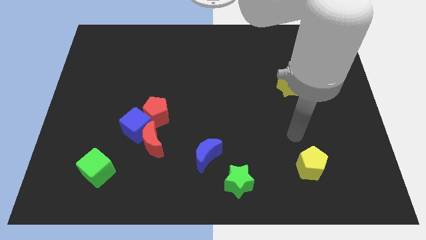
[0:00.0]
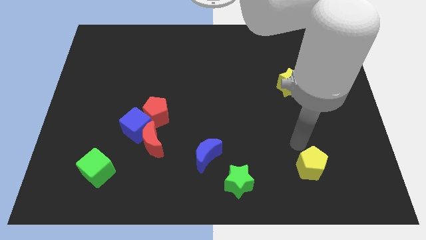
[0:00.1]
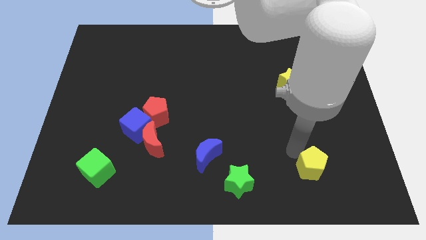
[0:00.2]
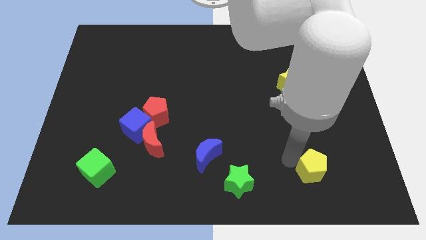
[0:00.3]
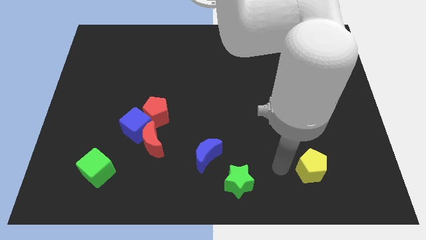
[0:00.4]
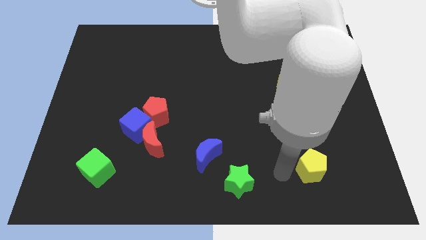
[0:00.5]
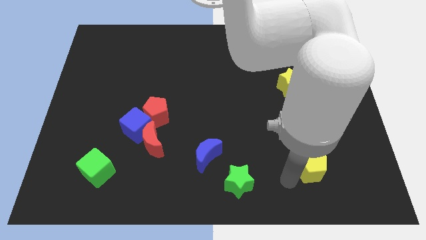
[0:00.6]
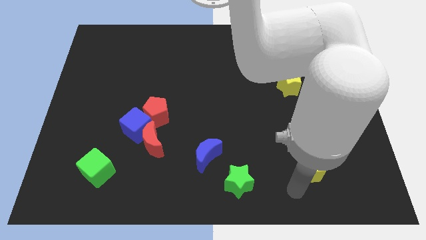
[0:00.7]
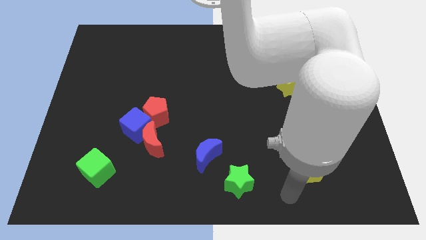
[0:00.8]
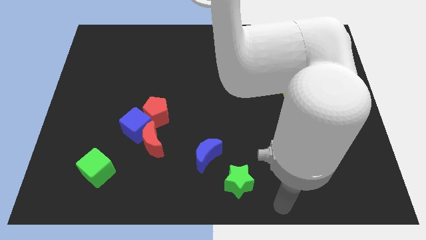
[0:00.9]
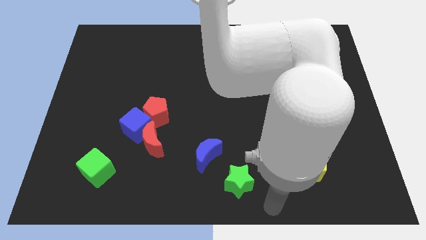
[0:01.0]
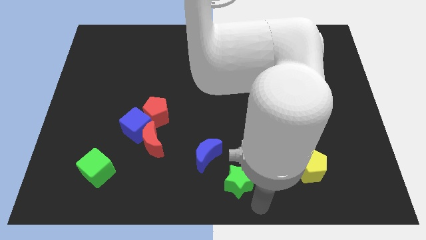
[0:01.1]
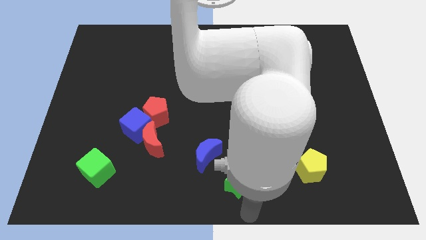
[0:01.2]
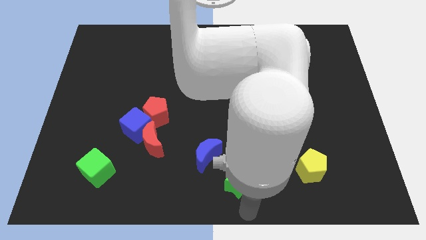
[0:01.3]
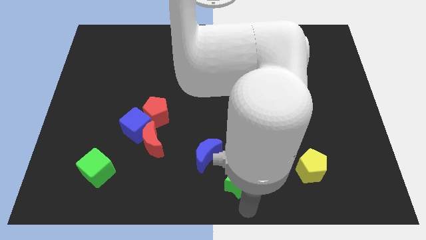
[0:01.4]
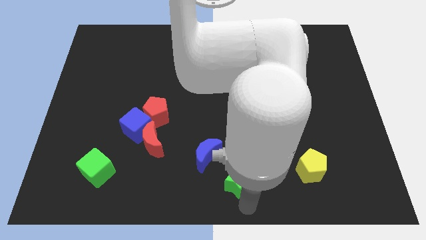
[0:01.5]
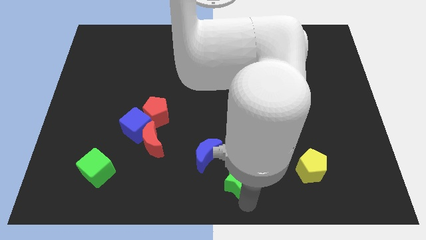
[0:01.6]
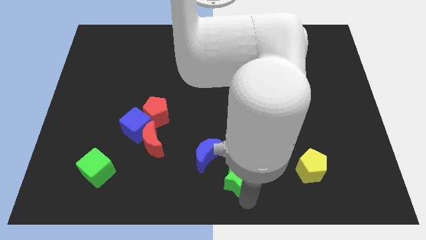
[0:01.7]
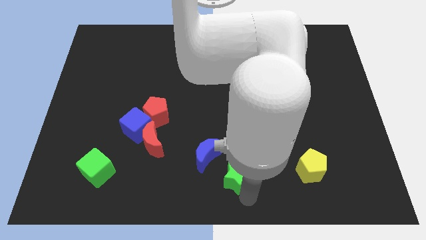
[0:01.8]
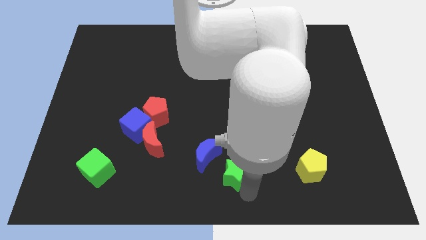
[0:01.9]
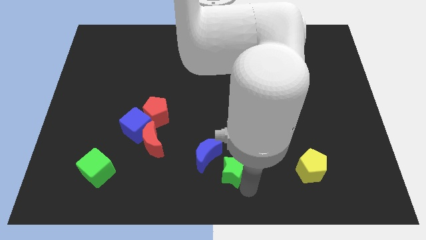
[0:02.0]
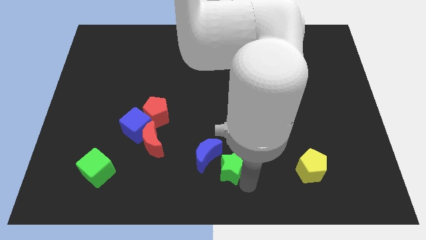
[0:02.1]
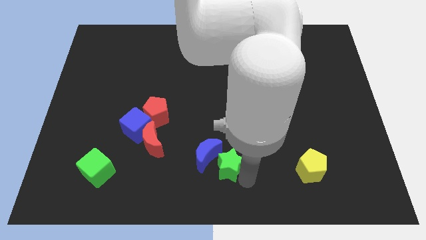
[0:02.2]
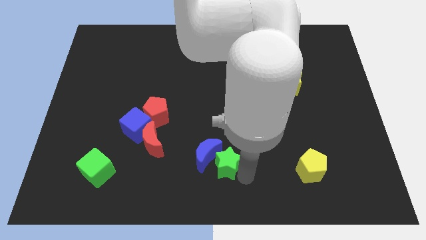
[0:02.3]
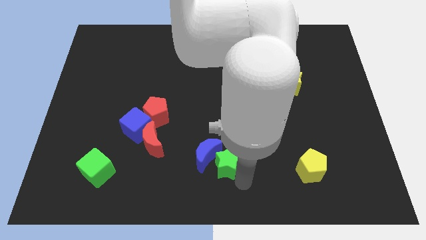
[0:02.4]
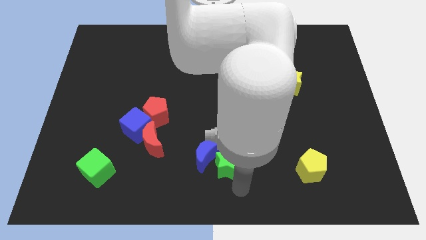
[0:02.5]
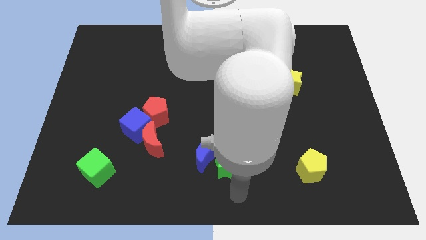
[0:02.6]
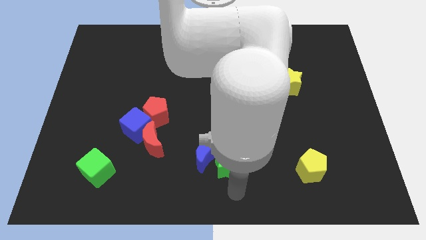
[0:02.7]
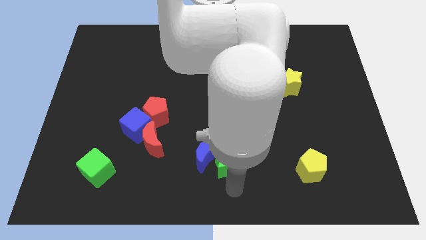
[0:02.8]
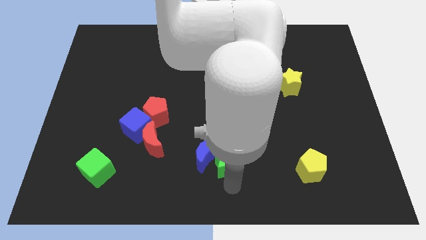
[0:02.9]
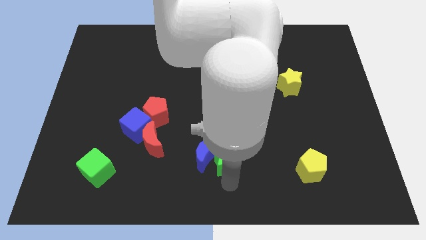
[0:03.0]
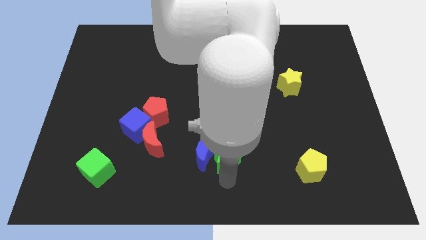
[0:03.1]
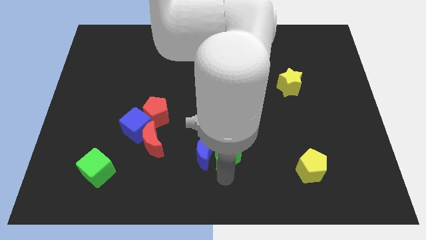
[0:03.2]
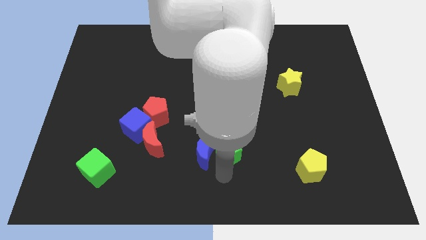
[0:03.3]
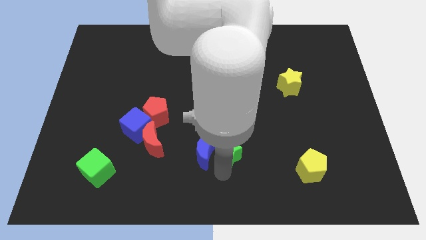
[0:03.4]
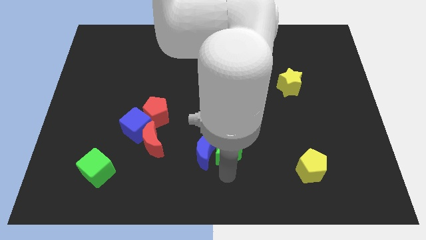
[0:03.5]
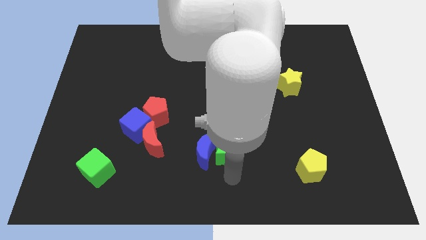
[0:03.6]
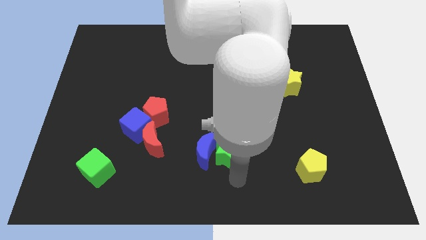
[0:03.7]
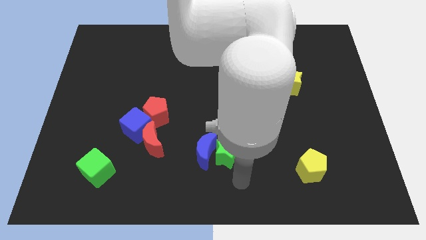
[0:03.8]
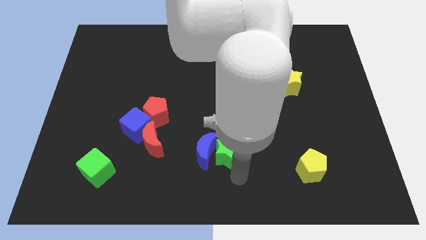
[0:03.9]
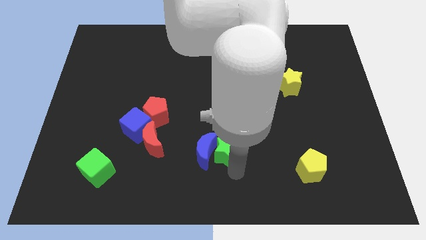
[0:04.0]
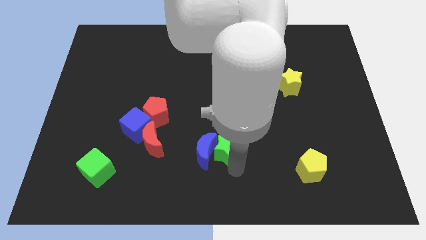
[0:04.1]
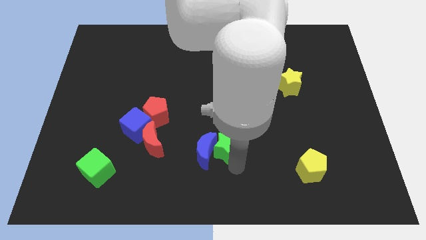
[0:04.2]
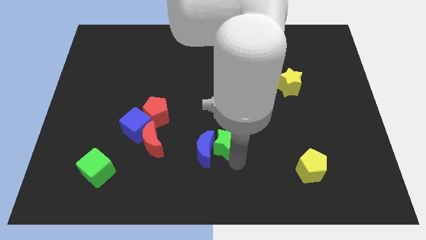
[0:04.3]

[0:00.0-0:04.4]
slide the green star somewhat diagonally upwards and to the left

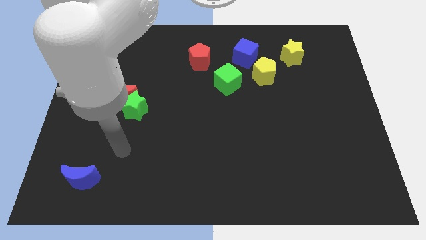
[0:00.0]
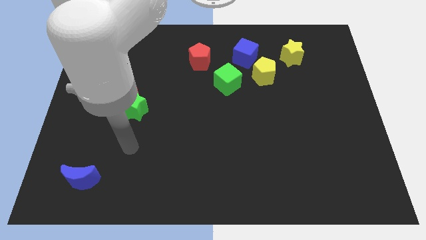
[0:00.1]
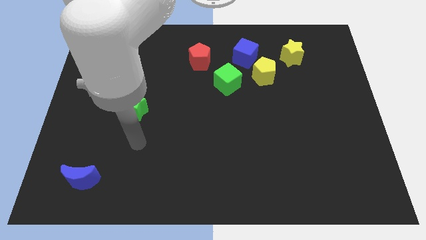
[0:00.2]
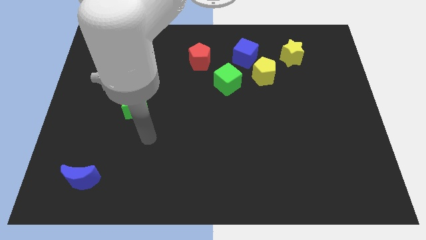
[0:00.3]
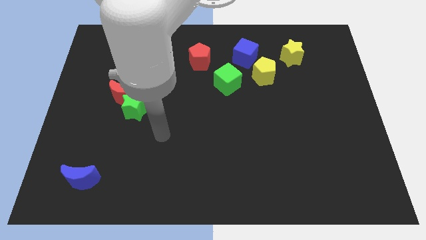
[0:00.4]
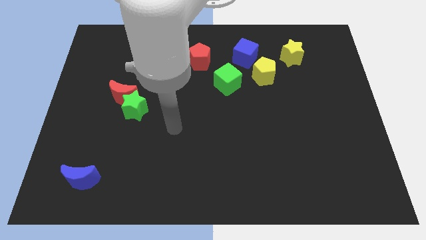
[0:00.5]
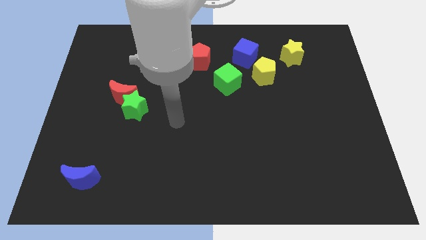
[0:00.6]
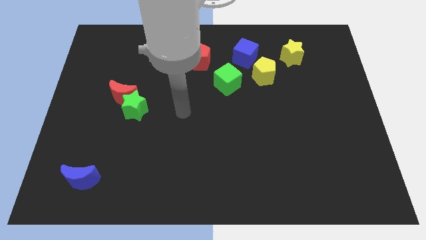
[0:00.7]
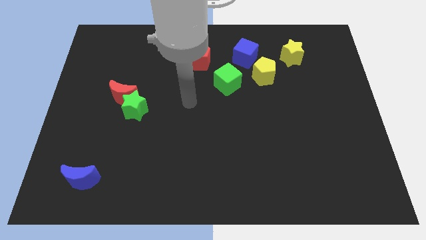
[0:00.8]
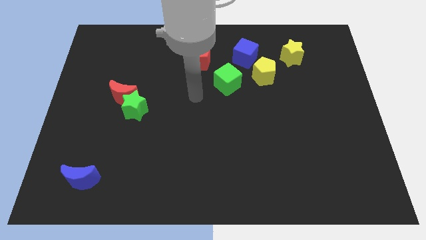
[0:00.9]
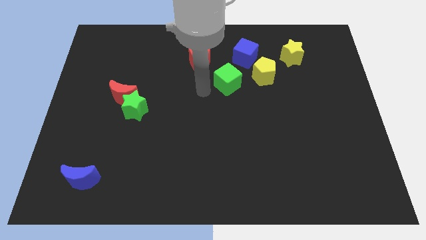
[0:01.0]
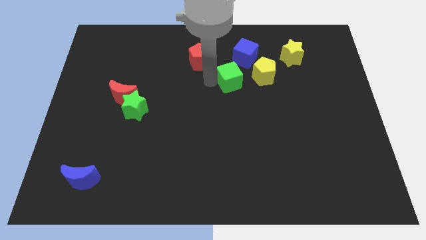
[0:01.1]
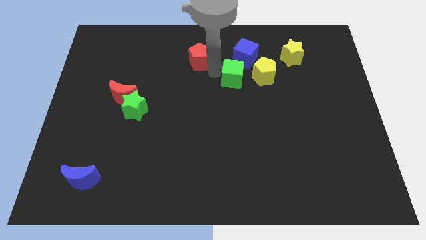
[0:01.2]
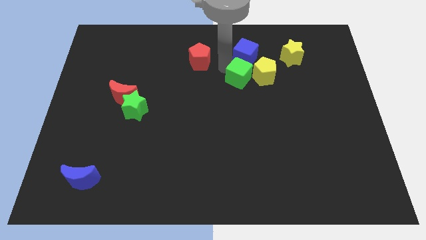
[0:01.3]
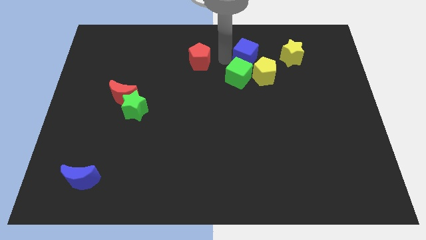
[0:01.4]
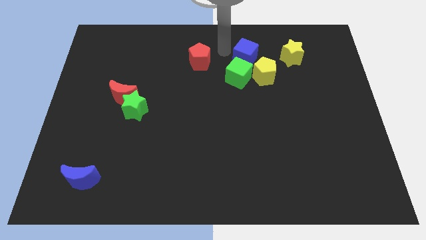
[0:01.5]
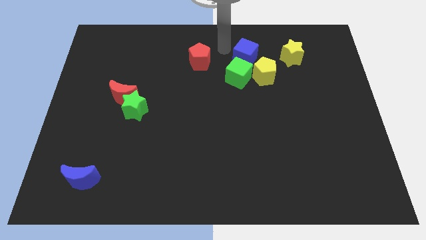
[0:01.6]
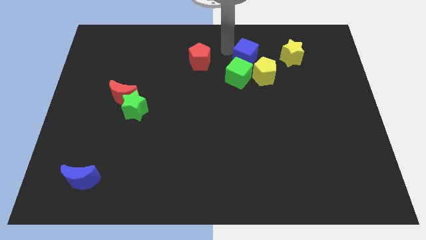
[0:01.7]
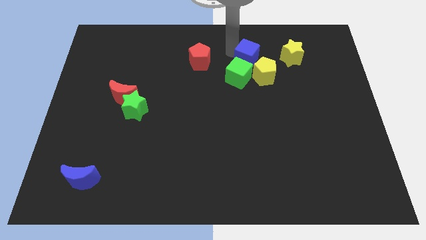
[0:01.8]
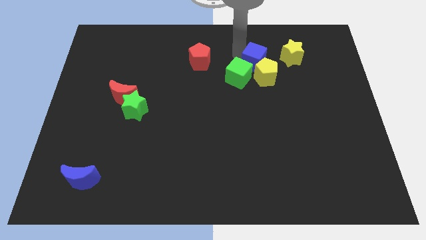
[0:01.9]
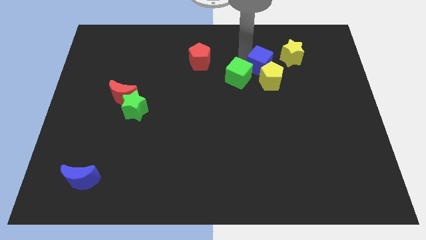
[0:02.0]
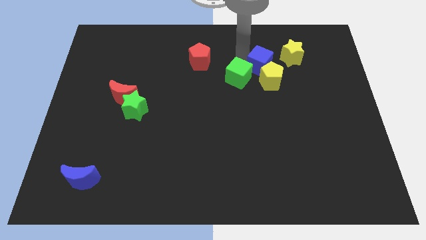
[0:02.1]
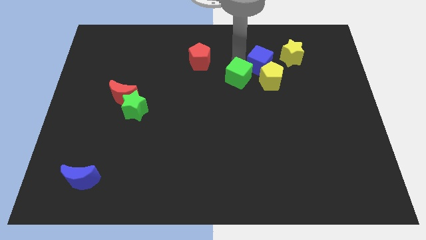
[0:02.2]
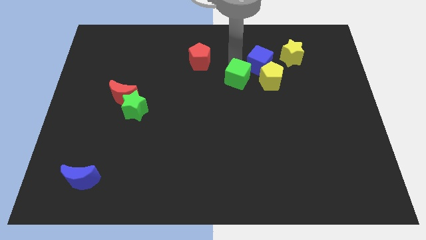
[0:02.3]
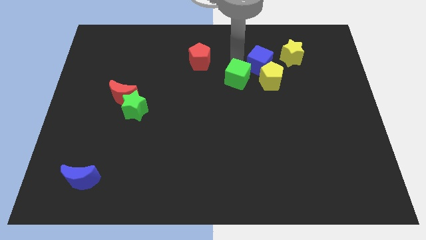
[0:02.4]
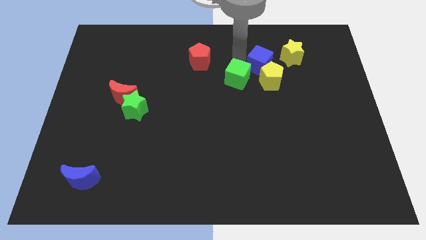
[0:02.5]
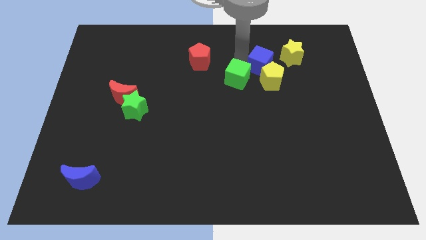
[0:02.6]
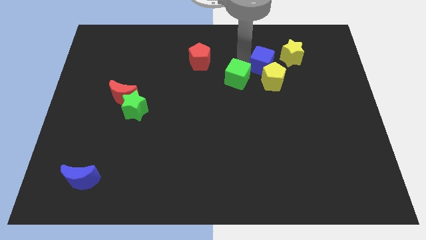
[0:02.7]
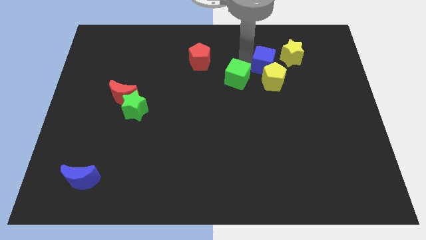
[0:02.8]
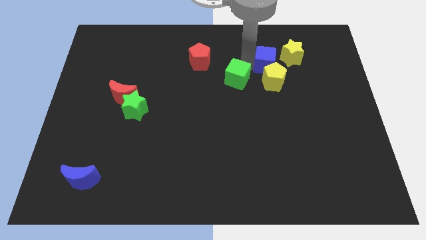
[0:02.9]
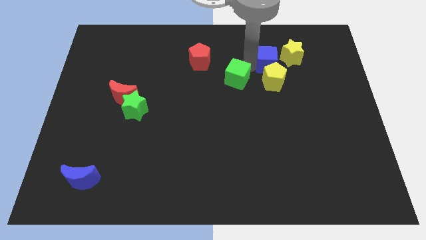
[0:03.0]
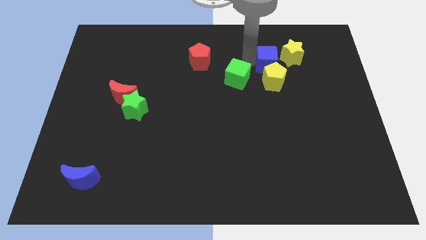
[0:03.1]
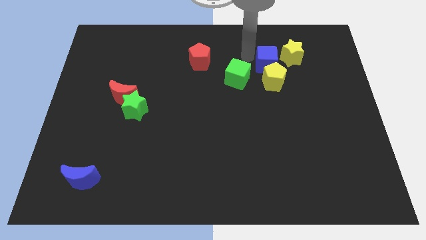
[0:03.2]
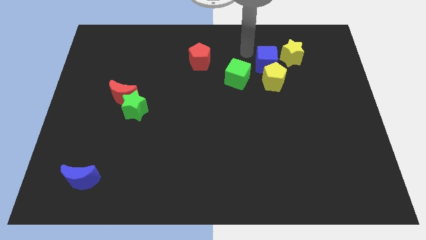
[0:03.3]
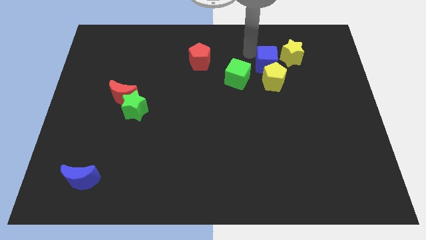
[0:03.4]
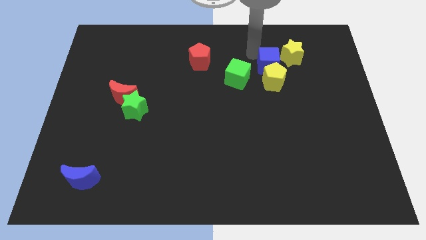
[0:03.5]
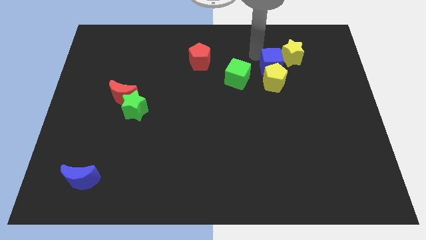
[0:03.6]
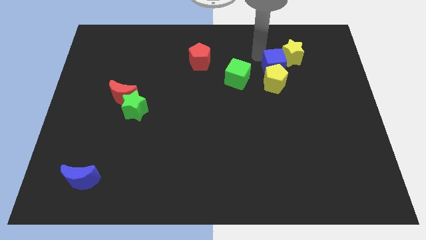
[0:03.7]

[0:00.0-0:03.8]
move the blue cube a little bit down and right diagonally

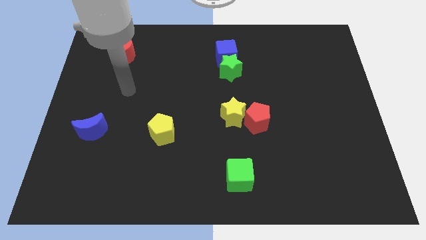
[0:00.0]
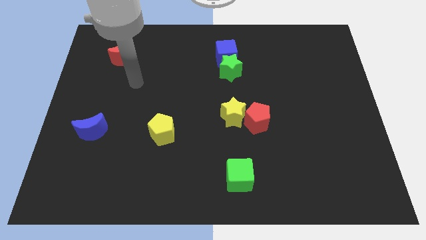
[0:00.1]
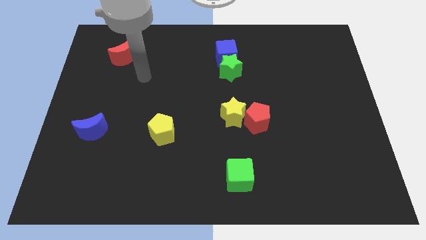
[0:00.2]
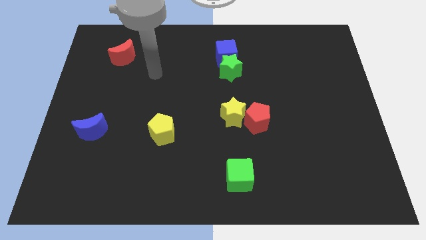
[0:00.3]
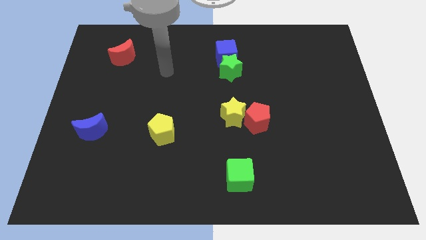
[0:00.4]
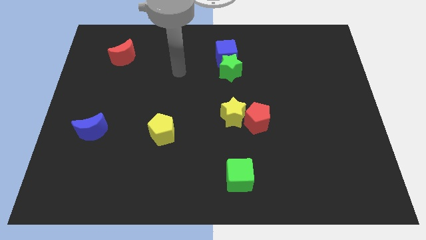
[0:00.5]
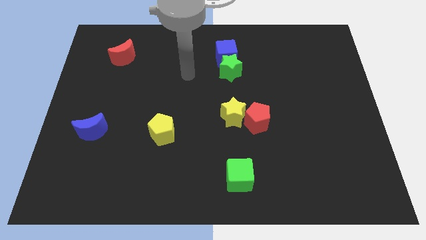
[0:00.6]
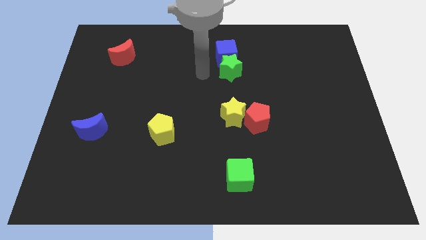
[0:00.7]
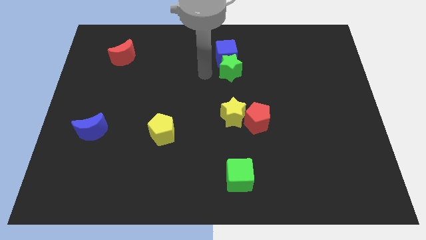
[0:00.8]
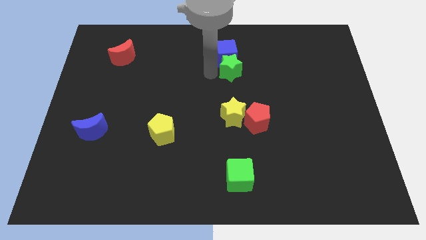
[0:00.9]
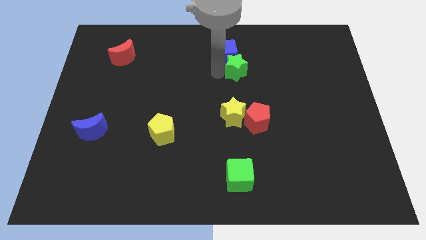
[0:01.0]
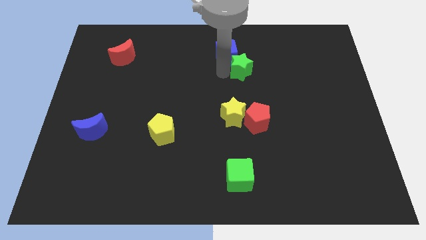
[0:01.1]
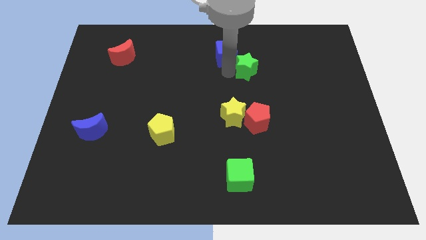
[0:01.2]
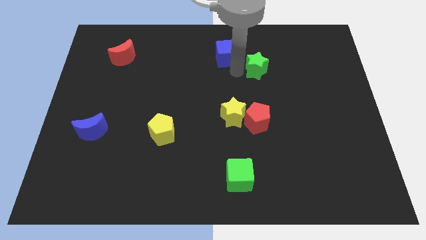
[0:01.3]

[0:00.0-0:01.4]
push the green star slightly right
